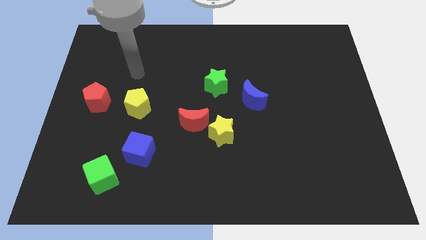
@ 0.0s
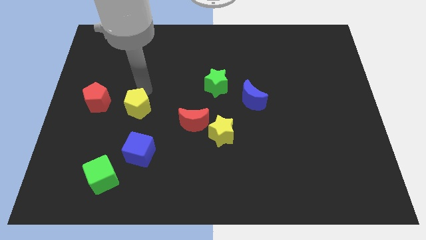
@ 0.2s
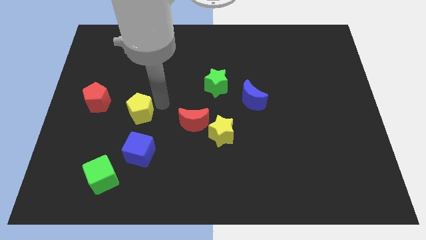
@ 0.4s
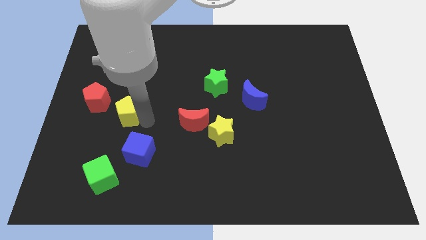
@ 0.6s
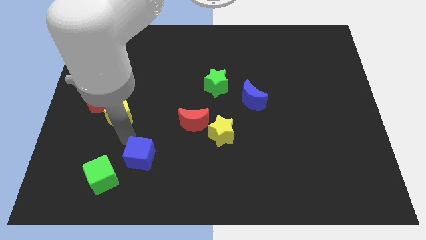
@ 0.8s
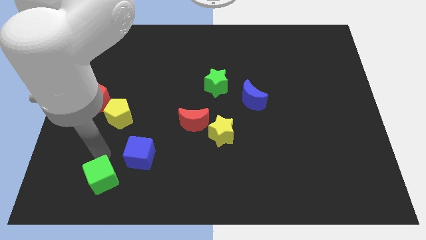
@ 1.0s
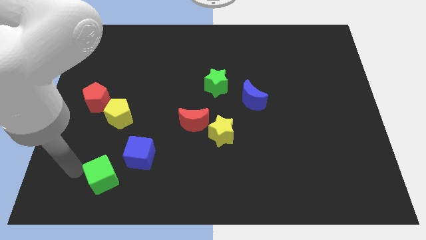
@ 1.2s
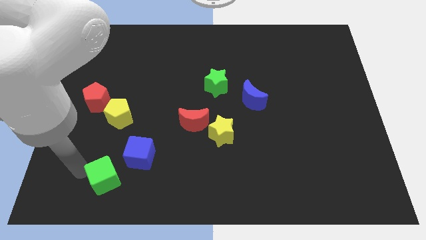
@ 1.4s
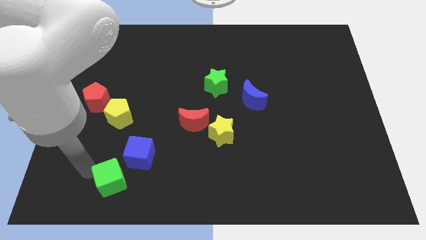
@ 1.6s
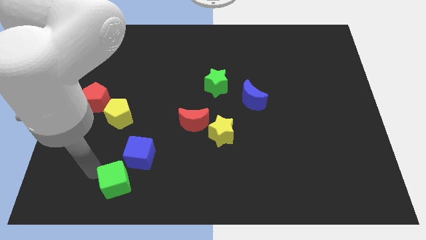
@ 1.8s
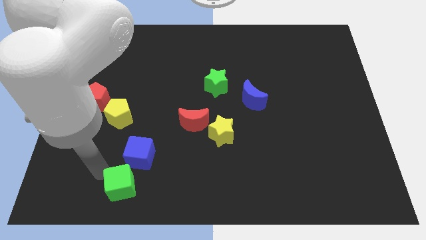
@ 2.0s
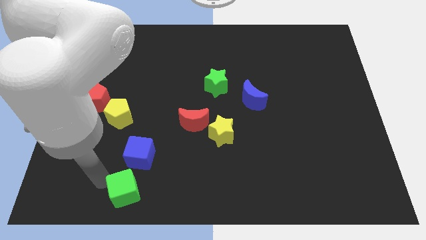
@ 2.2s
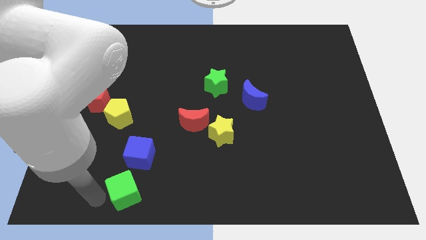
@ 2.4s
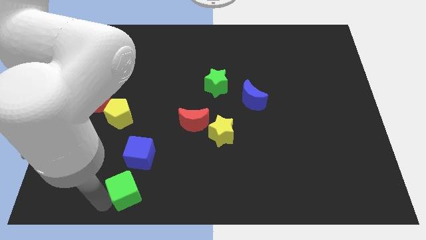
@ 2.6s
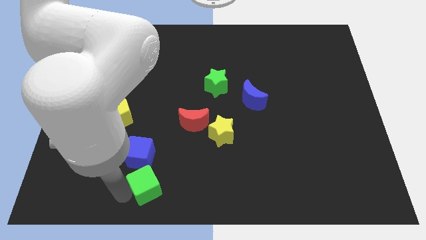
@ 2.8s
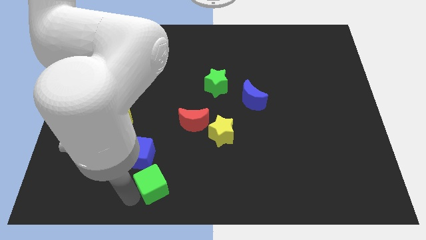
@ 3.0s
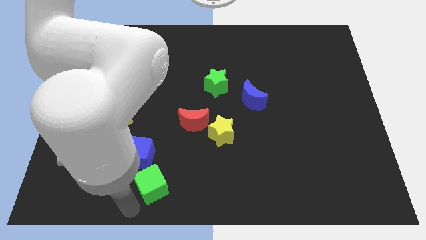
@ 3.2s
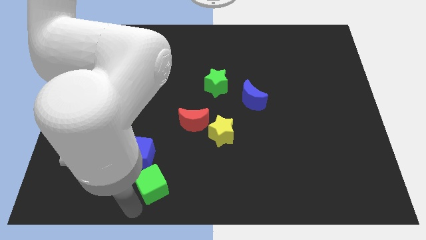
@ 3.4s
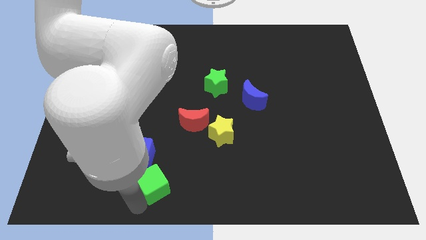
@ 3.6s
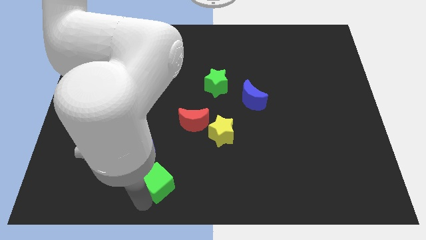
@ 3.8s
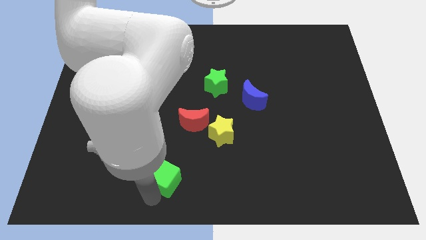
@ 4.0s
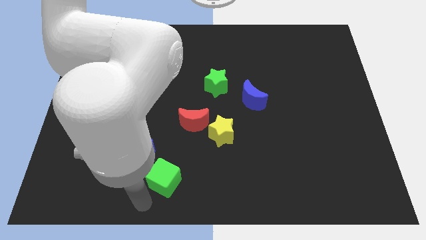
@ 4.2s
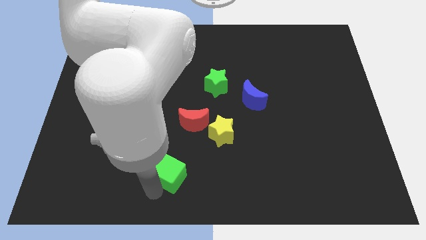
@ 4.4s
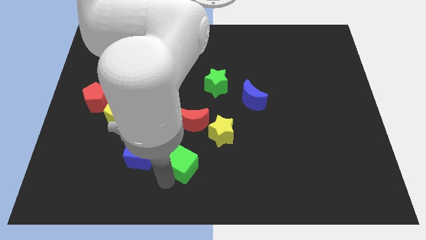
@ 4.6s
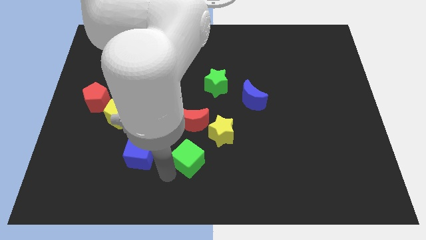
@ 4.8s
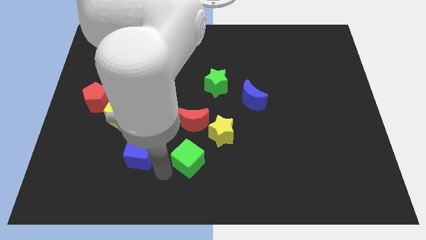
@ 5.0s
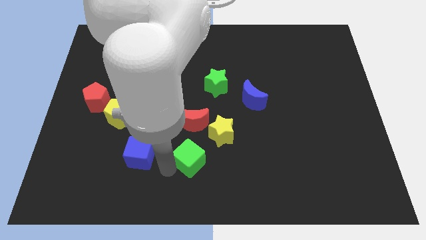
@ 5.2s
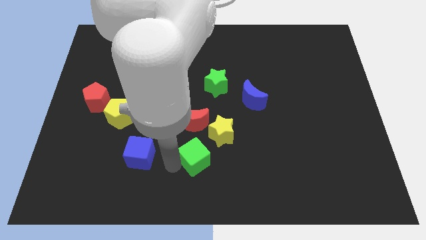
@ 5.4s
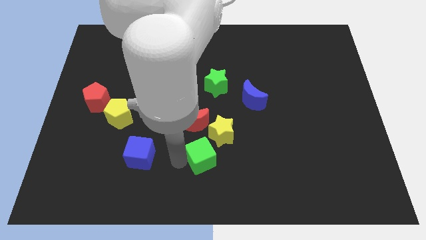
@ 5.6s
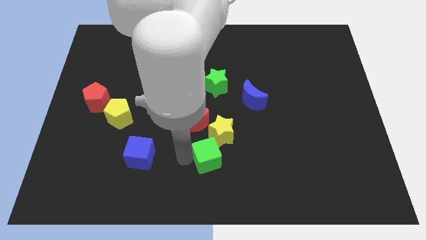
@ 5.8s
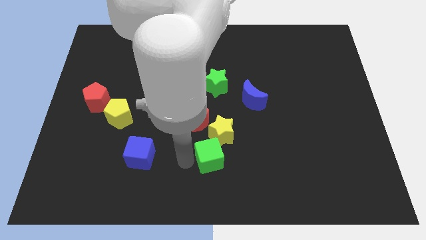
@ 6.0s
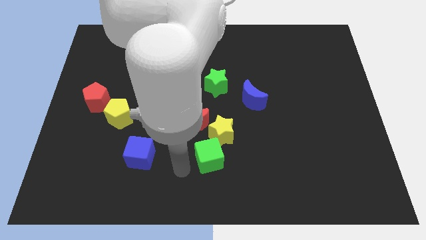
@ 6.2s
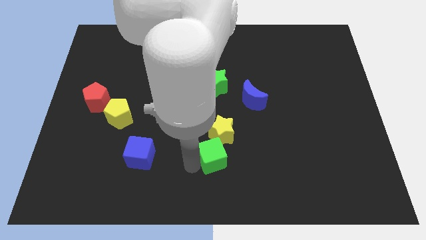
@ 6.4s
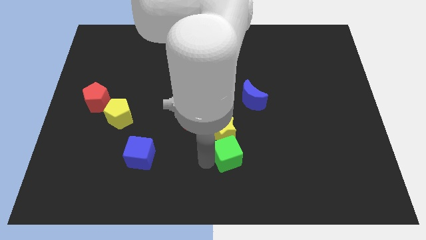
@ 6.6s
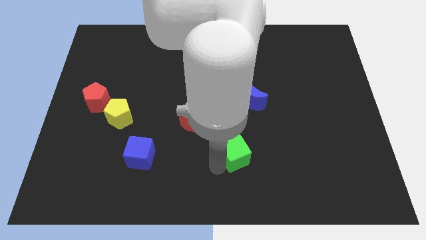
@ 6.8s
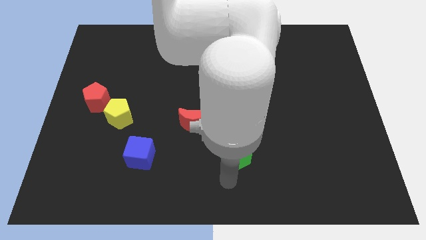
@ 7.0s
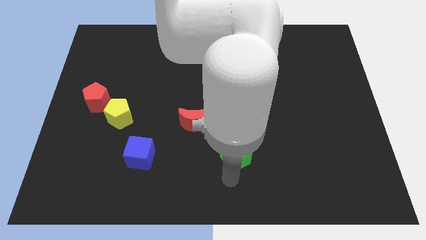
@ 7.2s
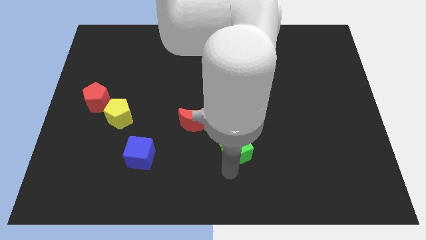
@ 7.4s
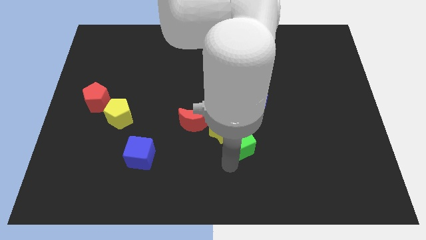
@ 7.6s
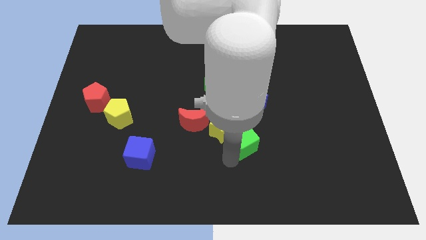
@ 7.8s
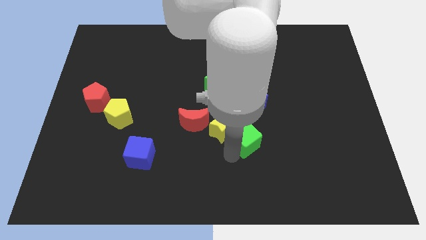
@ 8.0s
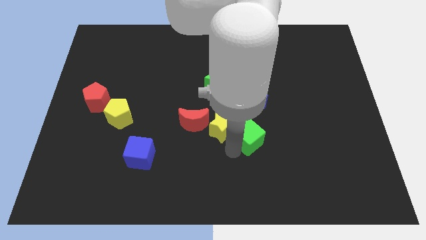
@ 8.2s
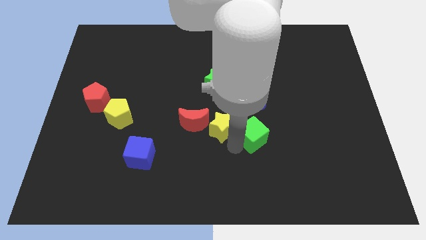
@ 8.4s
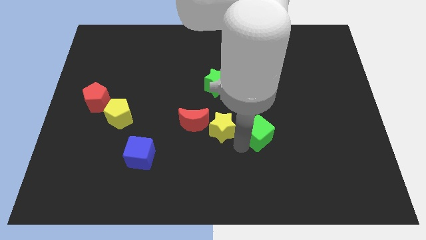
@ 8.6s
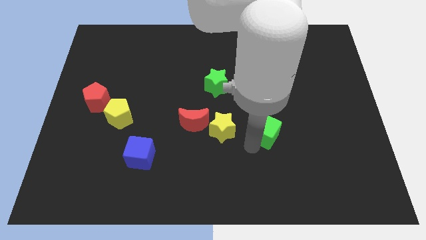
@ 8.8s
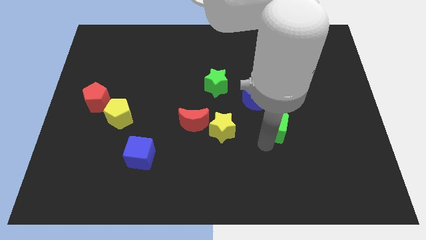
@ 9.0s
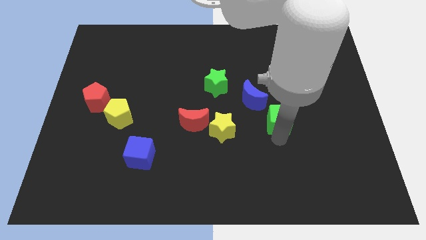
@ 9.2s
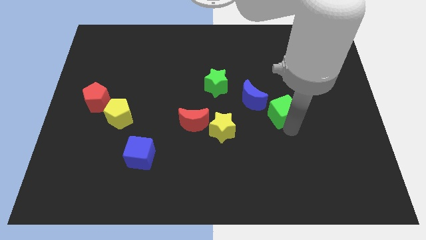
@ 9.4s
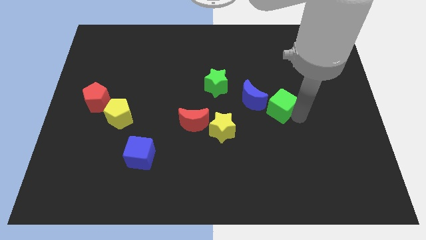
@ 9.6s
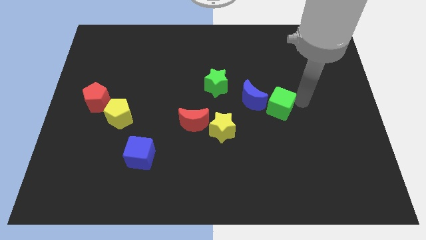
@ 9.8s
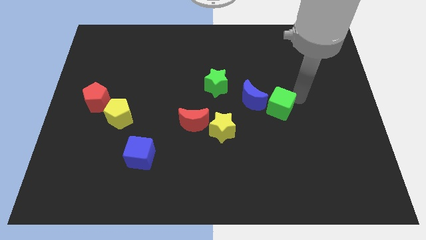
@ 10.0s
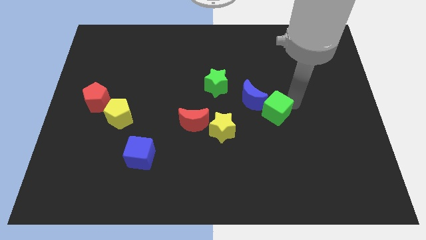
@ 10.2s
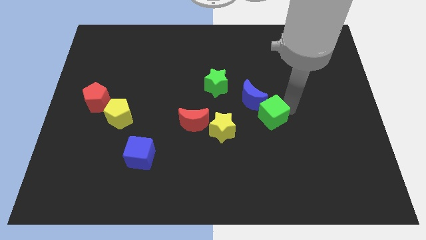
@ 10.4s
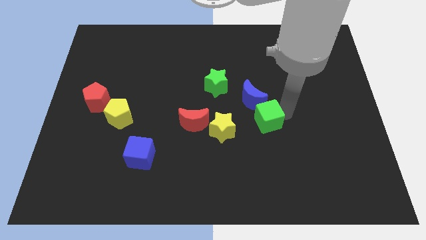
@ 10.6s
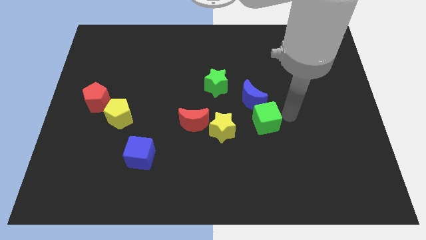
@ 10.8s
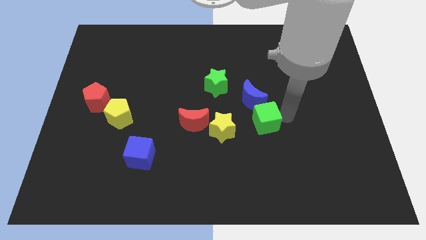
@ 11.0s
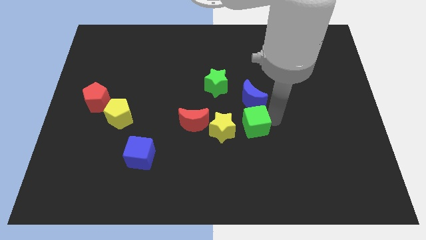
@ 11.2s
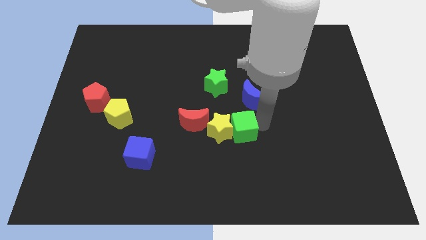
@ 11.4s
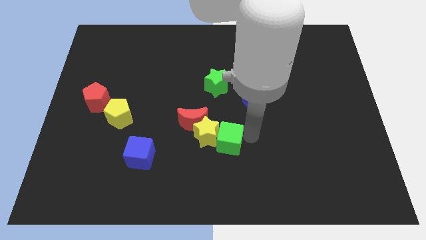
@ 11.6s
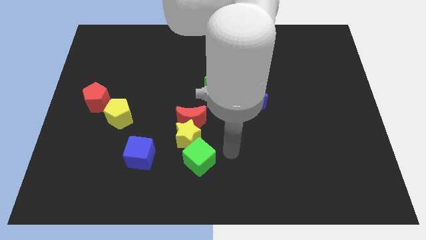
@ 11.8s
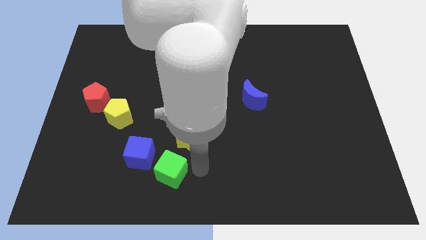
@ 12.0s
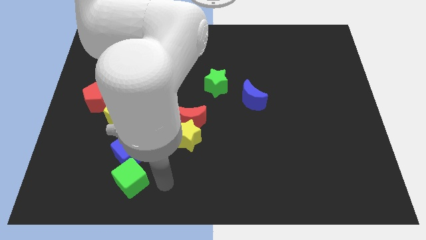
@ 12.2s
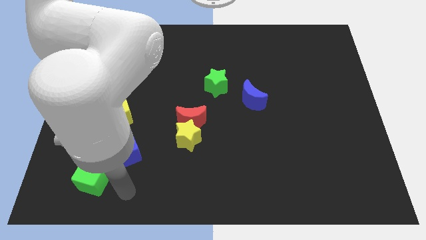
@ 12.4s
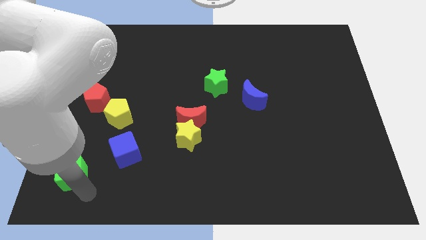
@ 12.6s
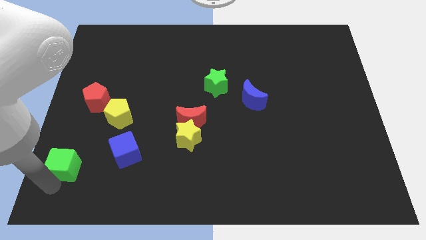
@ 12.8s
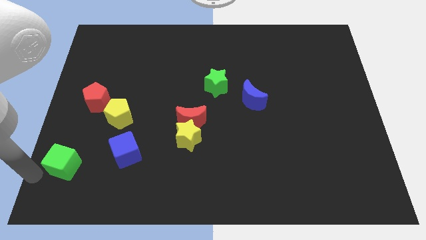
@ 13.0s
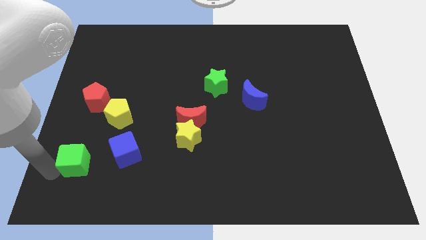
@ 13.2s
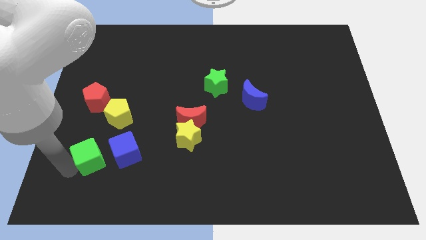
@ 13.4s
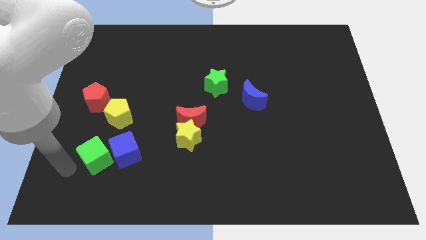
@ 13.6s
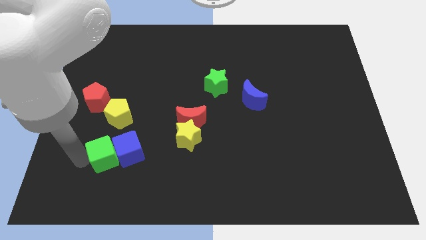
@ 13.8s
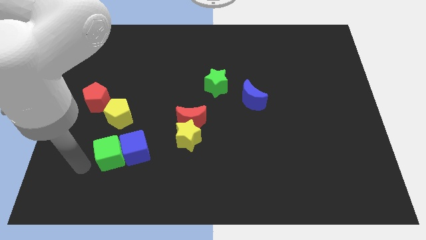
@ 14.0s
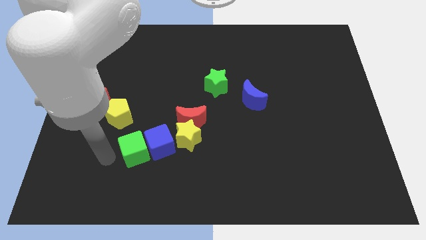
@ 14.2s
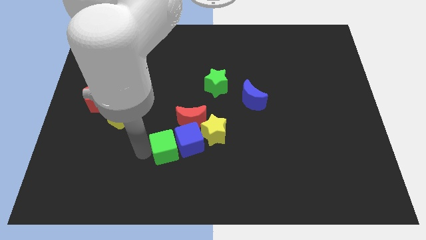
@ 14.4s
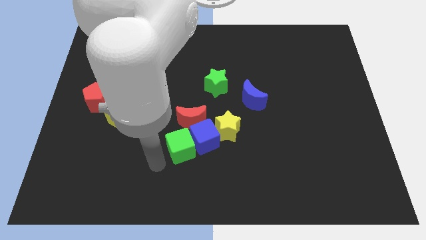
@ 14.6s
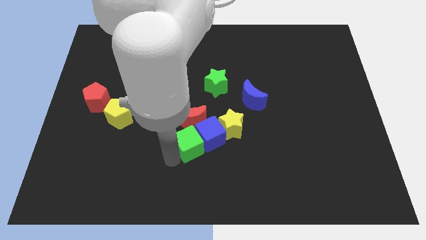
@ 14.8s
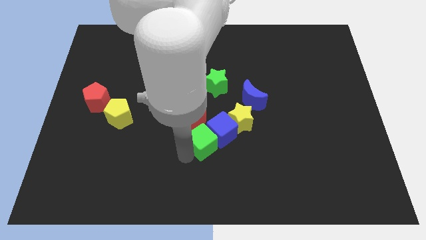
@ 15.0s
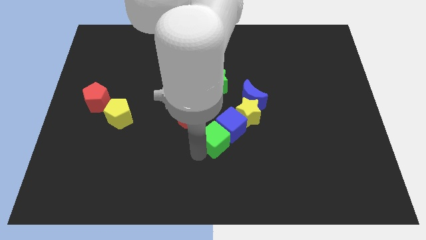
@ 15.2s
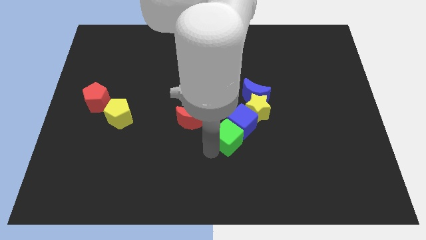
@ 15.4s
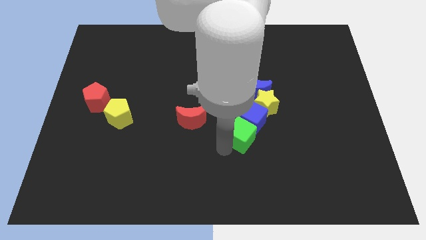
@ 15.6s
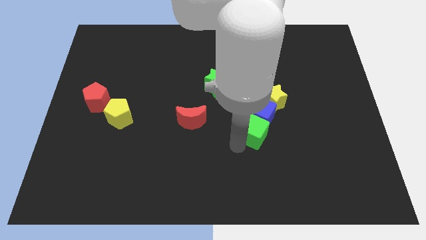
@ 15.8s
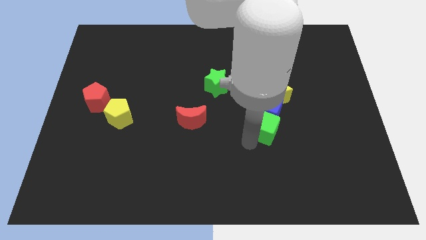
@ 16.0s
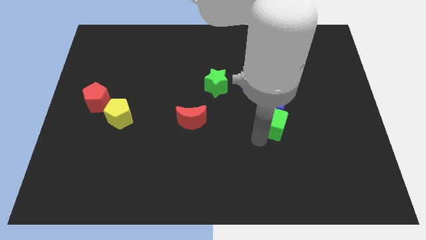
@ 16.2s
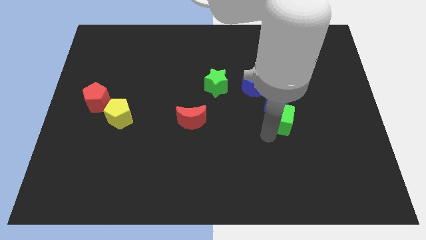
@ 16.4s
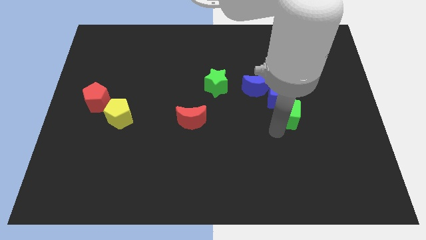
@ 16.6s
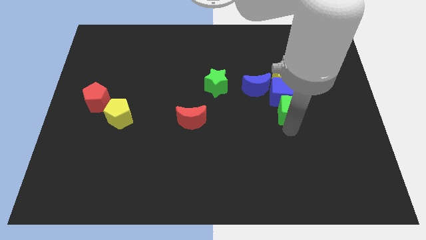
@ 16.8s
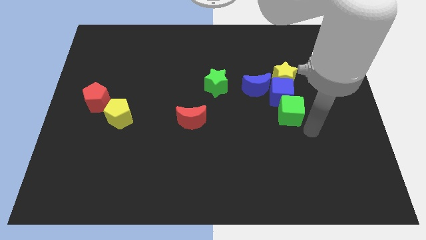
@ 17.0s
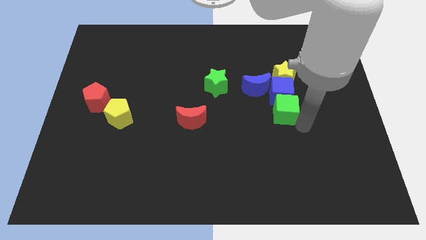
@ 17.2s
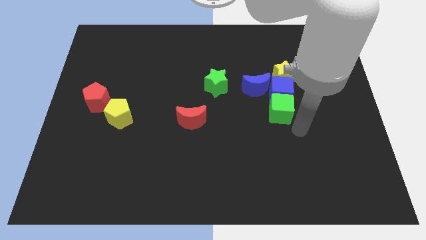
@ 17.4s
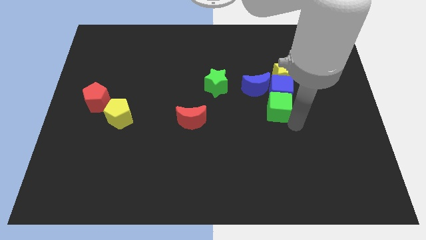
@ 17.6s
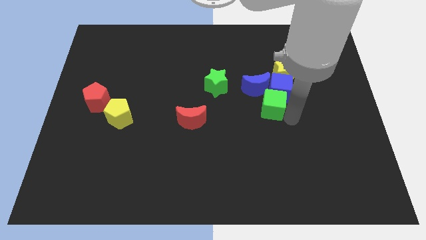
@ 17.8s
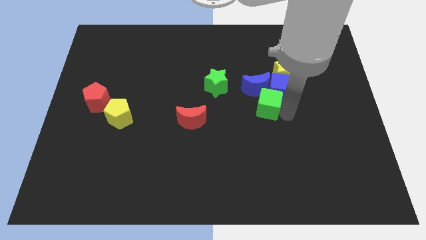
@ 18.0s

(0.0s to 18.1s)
slide the green cube close to the blue moon
